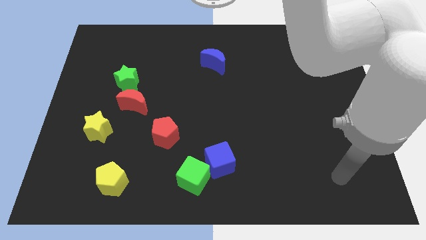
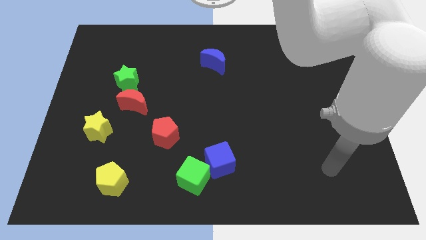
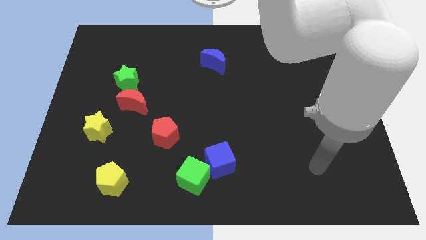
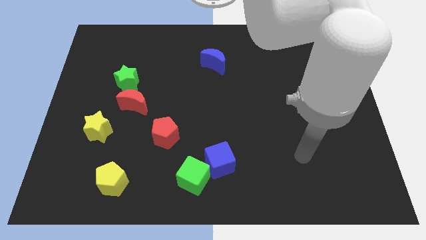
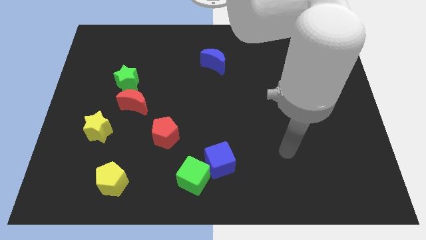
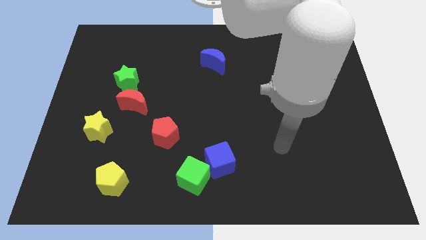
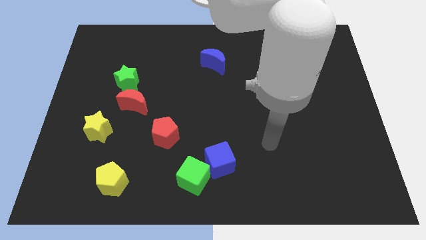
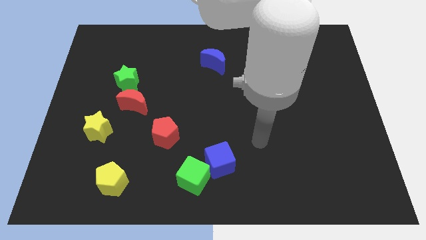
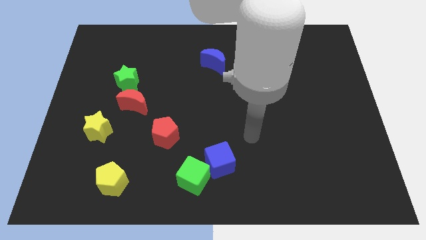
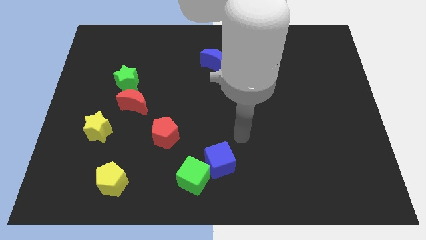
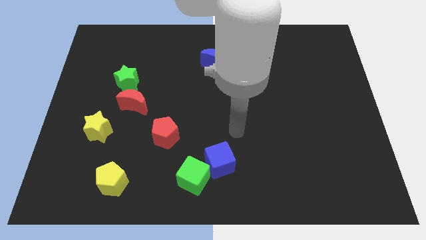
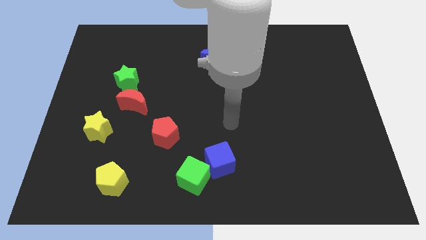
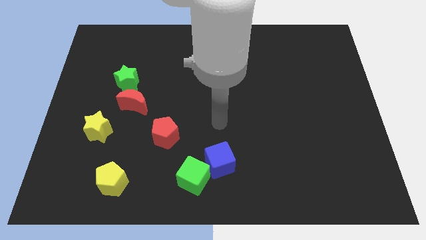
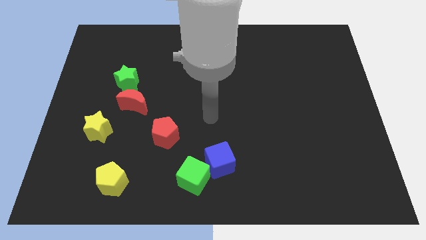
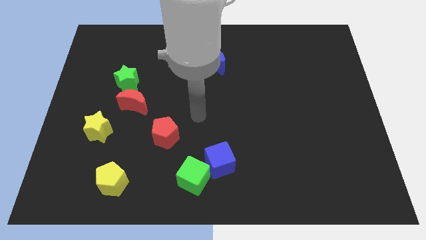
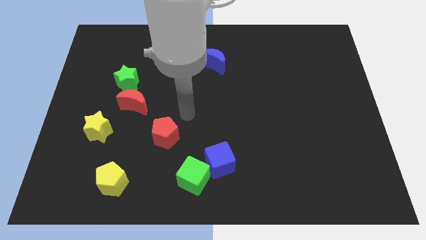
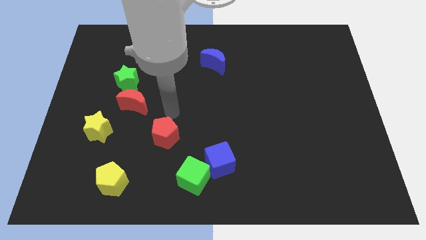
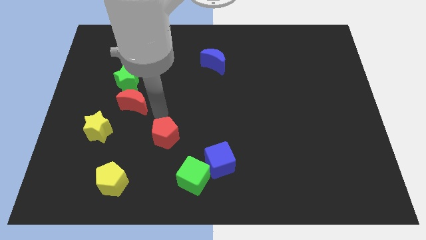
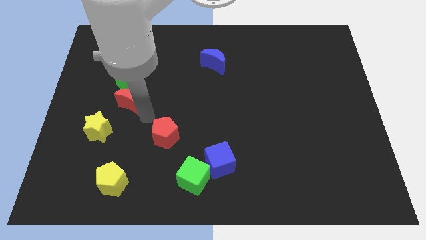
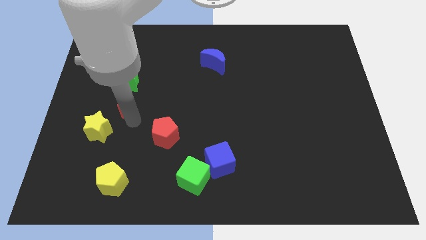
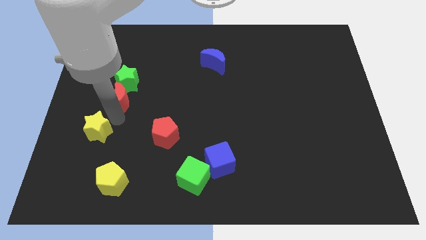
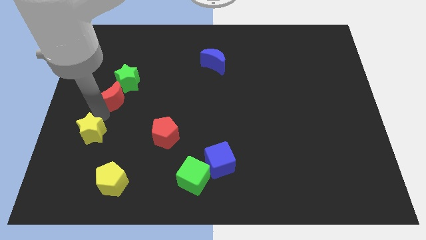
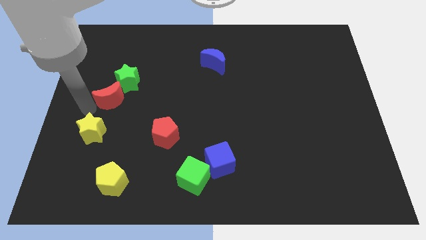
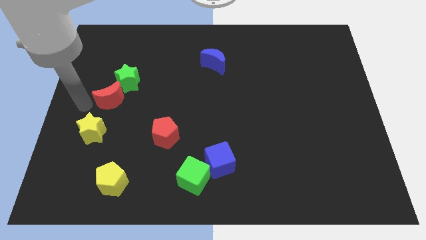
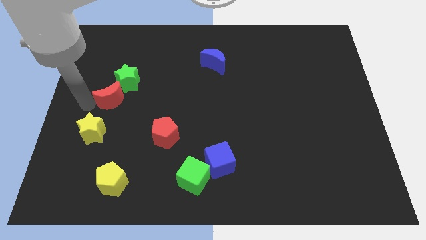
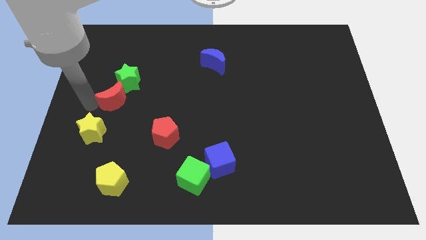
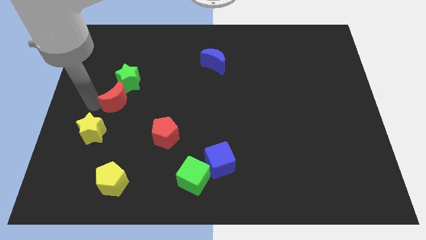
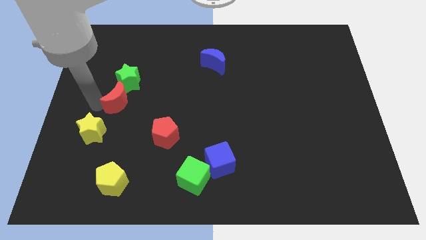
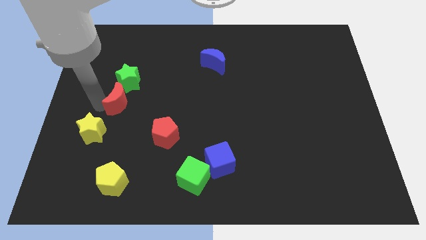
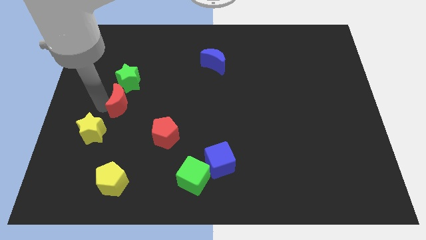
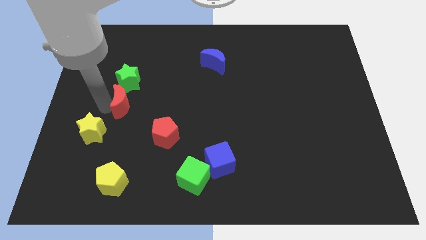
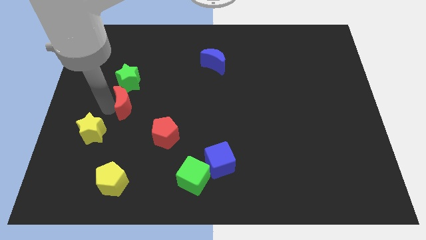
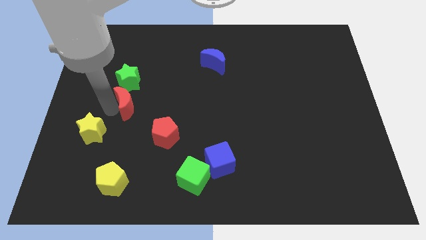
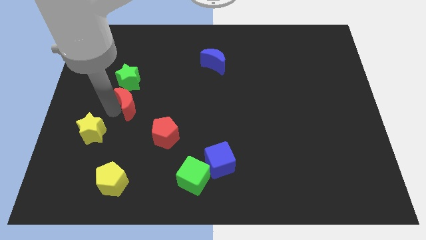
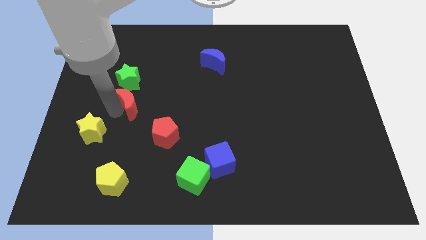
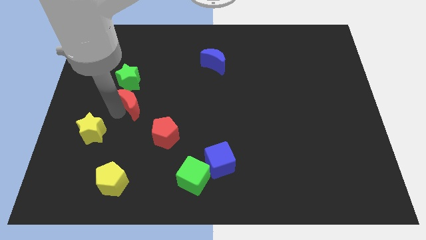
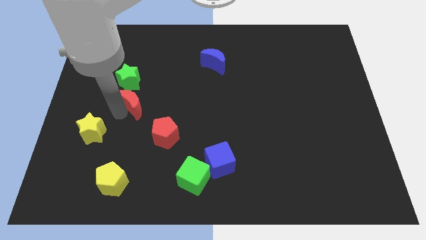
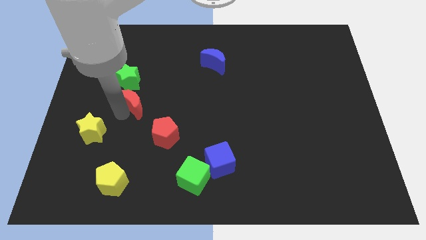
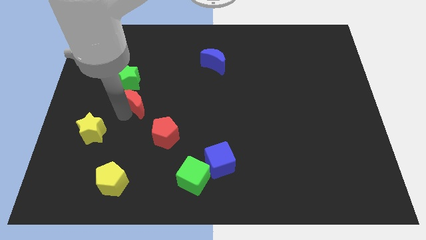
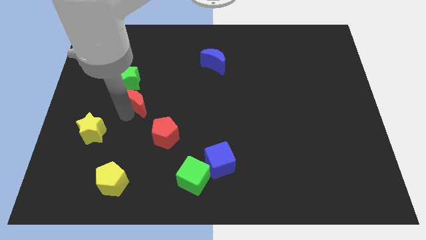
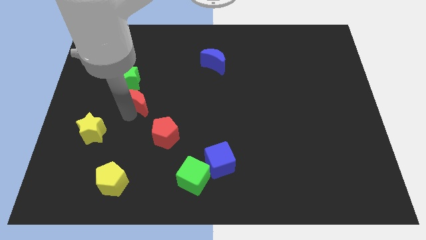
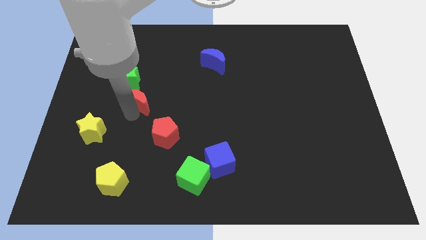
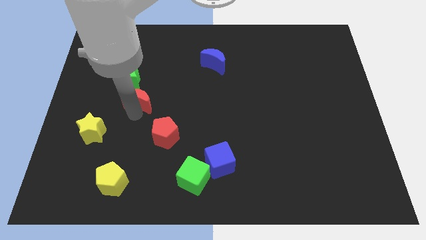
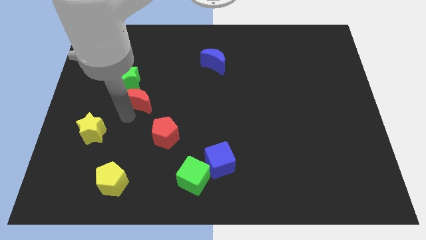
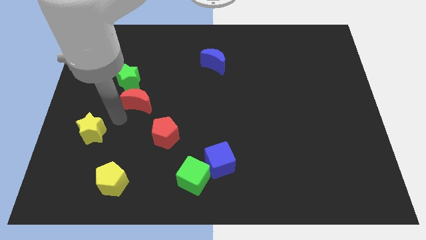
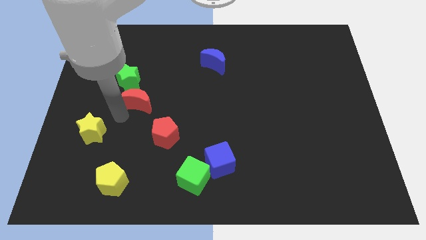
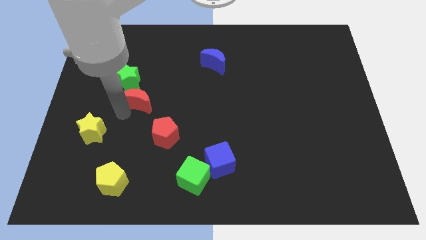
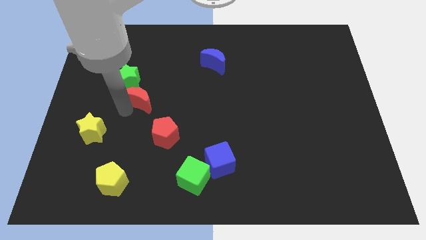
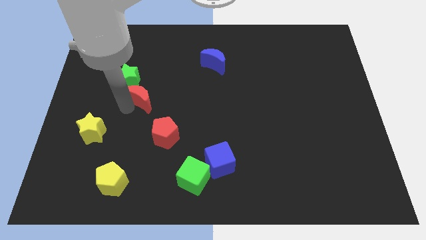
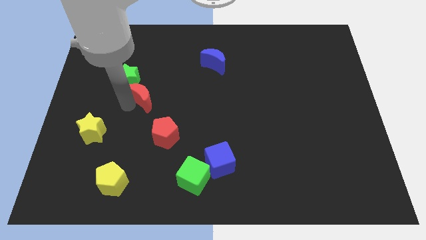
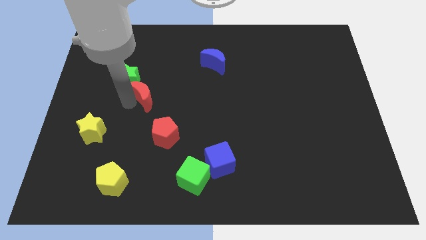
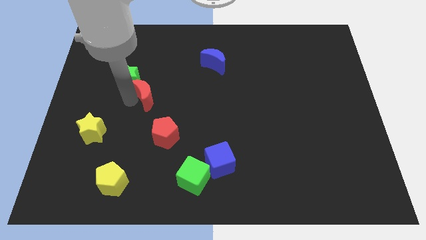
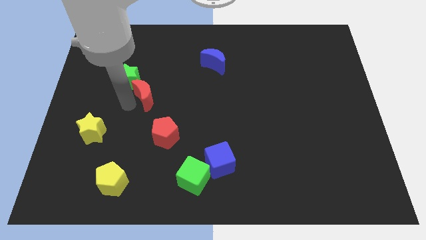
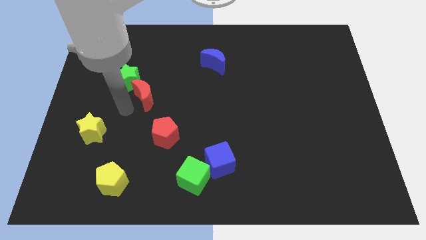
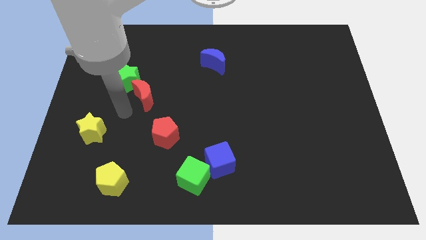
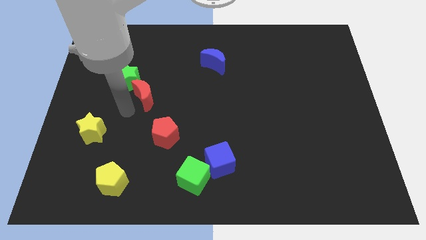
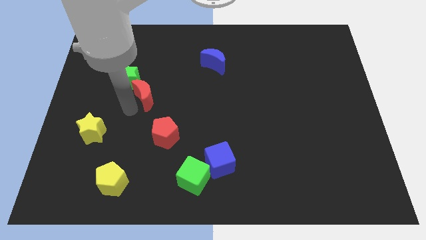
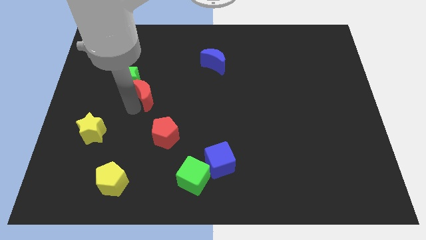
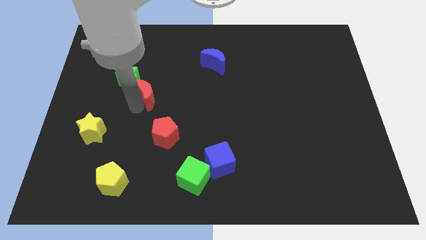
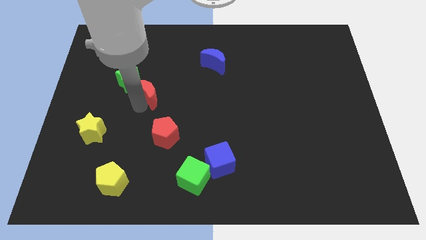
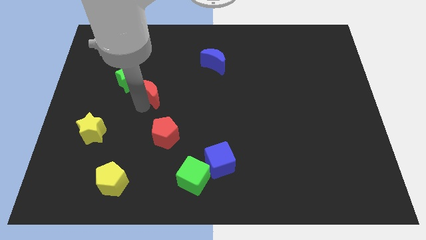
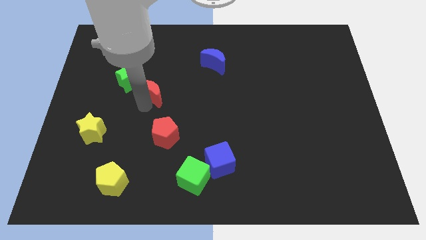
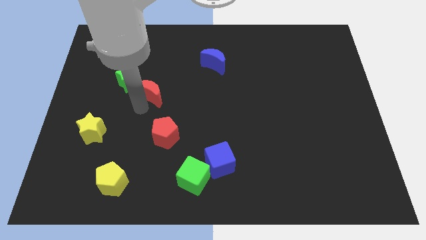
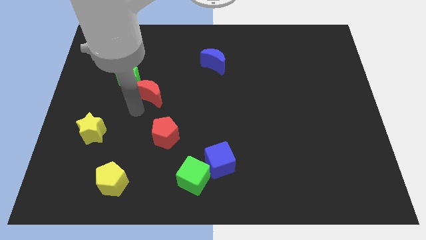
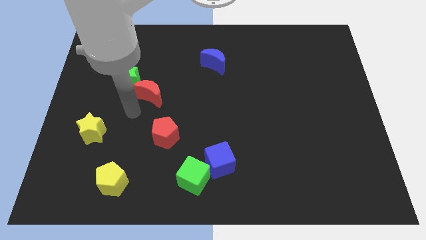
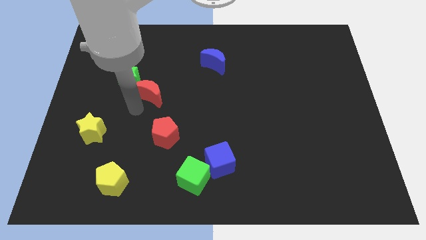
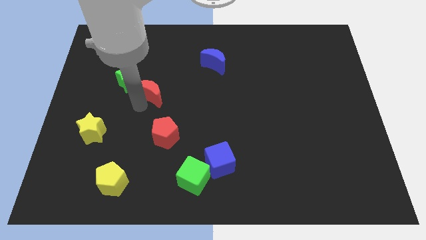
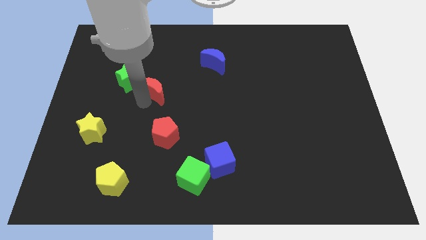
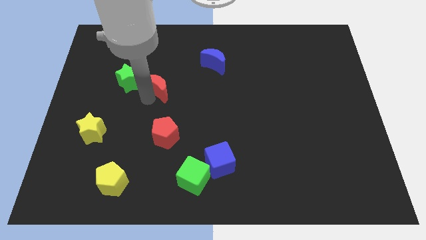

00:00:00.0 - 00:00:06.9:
move the red moon upwards and right diagonally somewhat

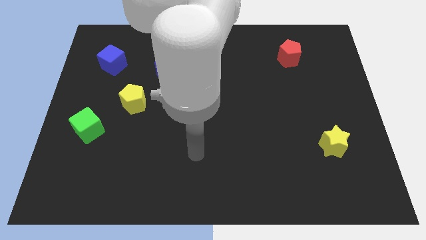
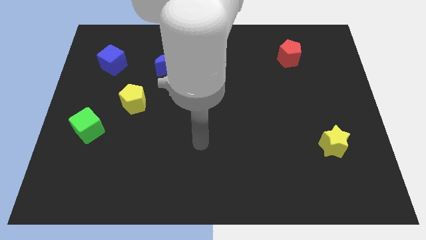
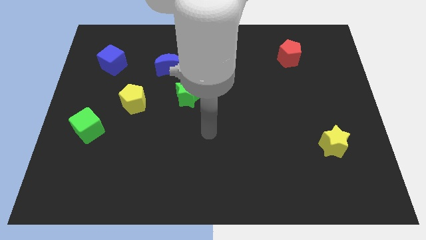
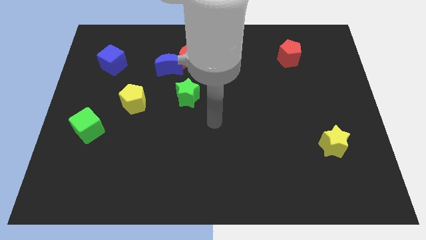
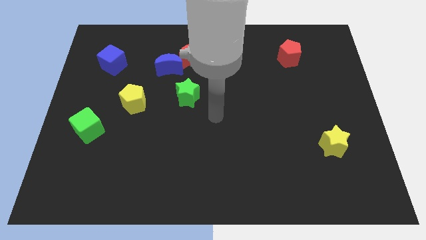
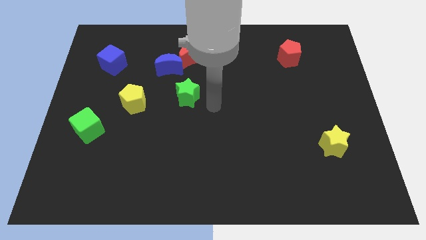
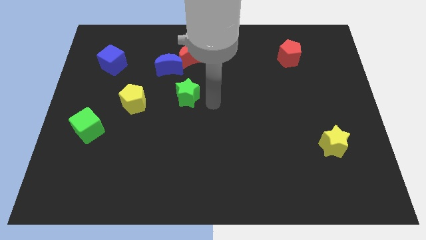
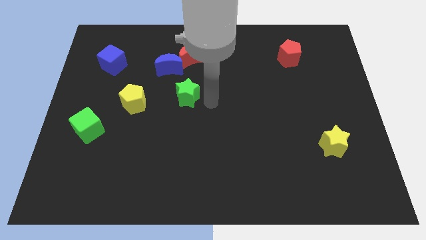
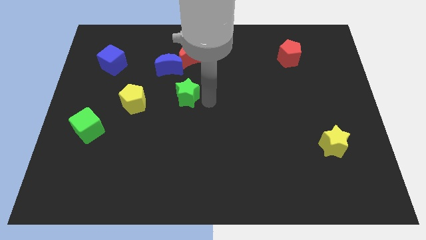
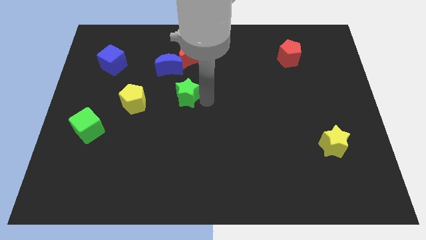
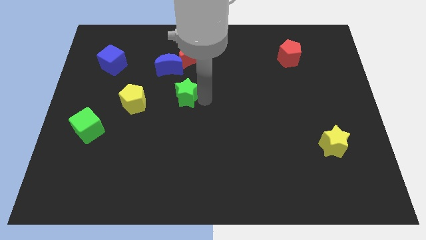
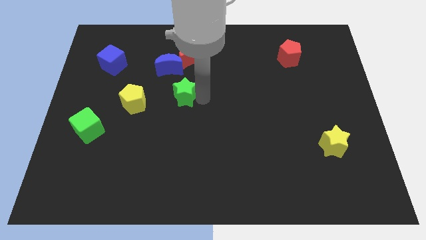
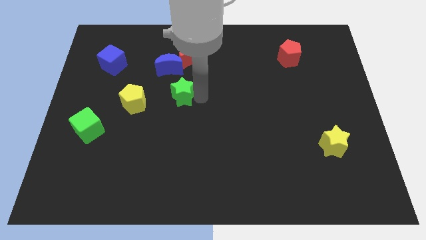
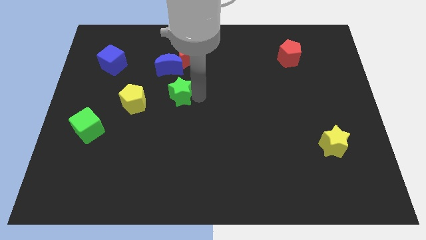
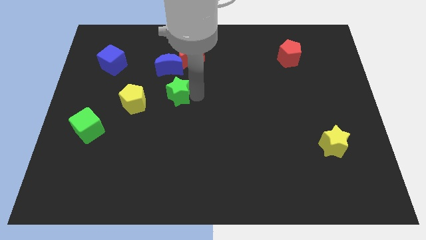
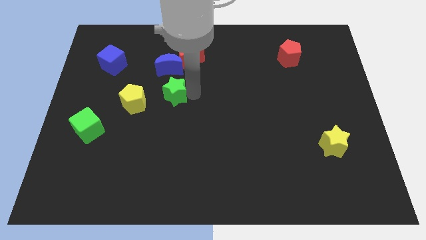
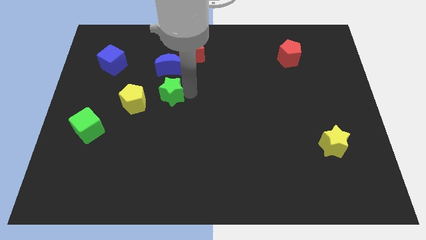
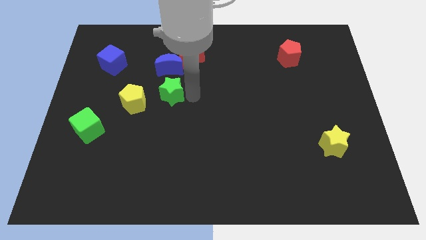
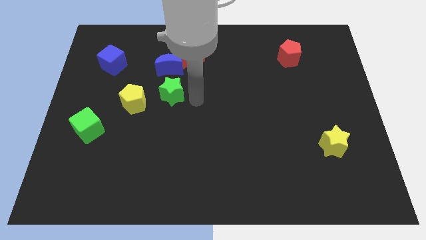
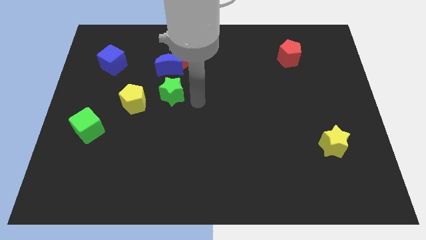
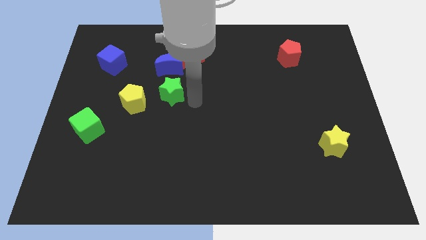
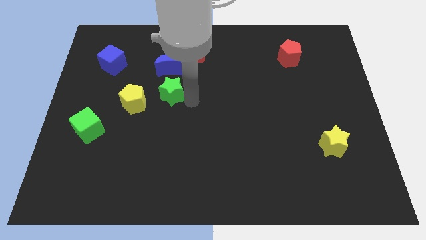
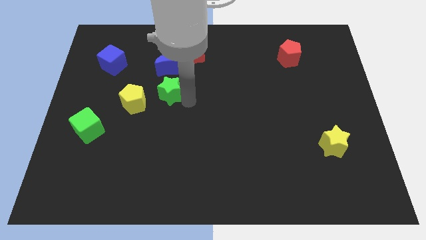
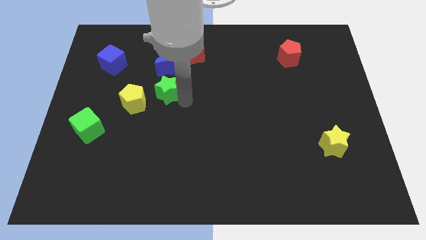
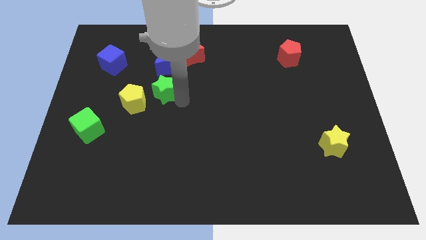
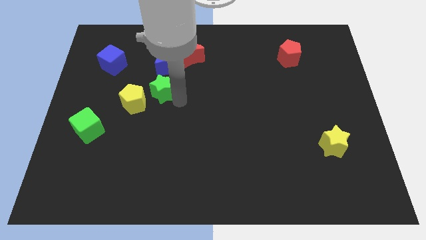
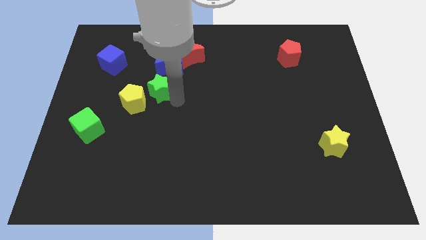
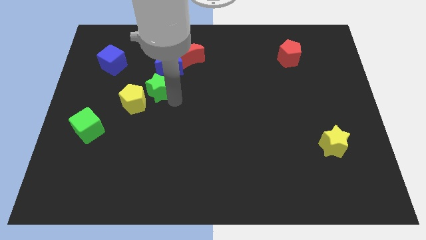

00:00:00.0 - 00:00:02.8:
slide the green star to the left a bit
